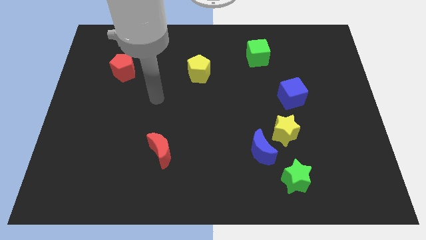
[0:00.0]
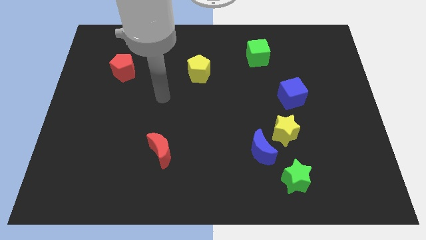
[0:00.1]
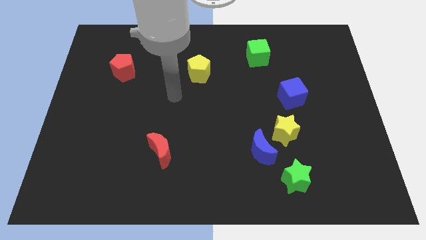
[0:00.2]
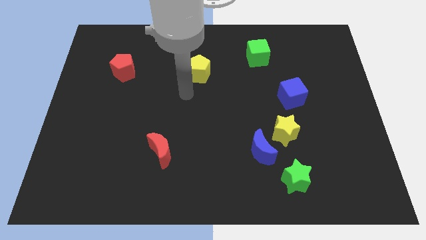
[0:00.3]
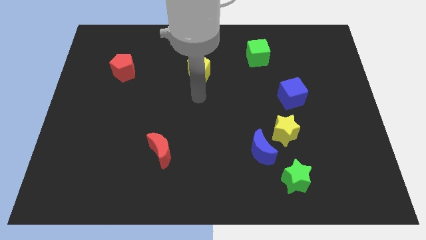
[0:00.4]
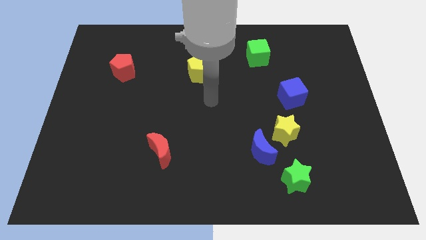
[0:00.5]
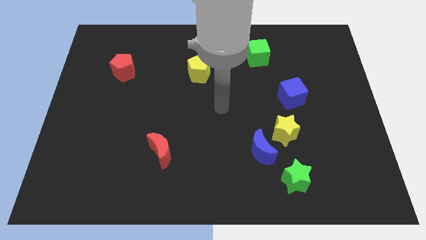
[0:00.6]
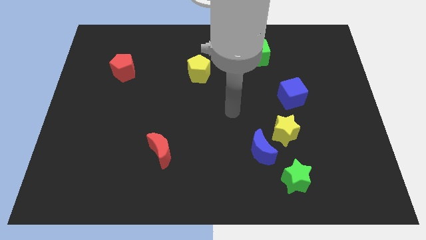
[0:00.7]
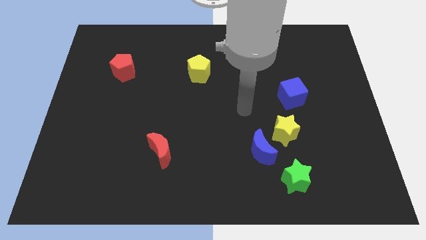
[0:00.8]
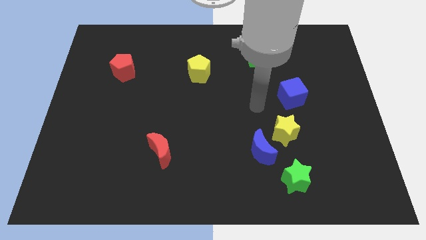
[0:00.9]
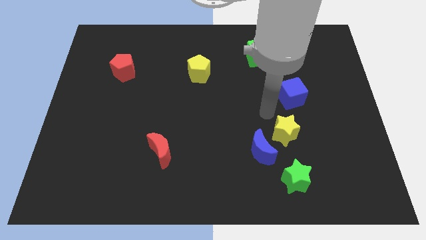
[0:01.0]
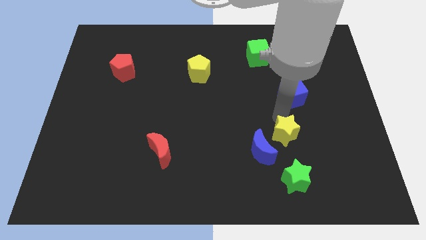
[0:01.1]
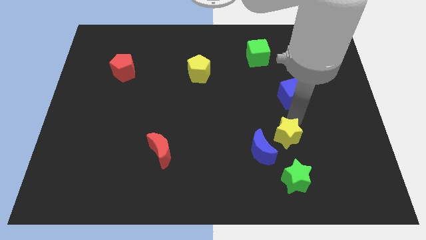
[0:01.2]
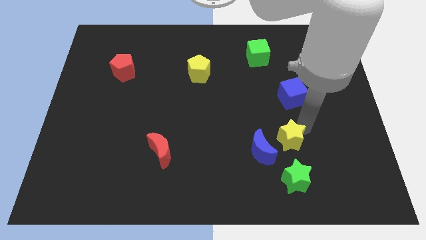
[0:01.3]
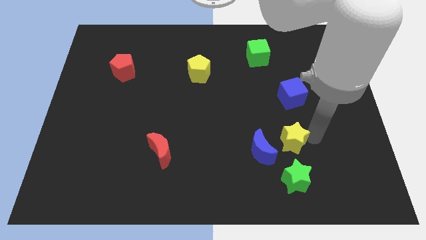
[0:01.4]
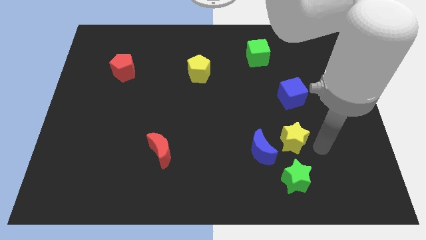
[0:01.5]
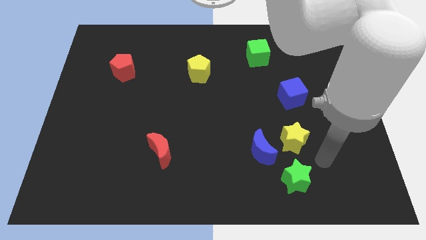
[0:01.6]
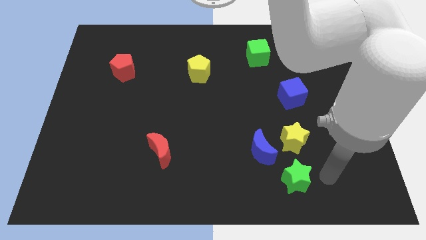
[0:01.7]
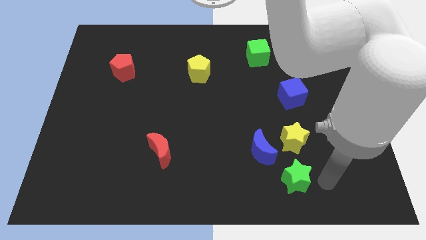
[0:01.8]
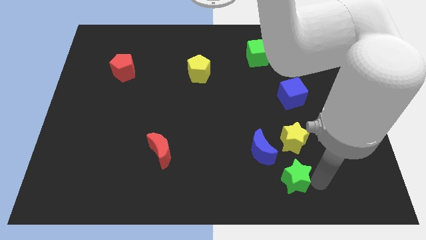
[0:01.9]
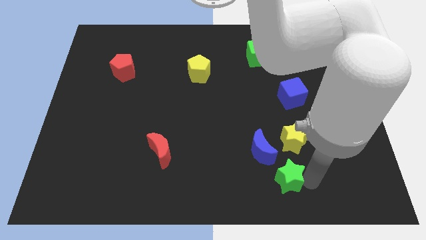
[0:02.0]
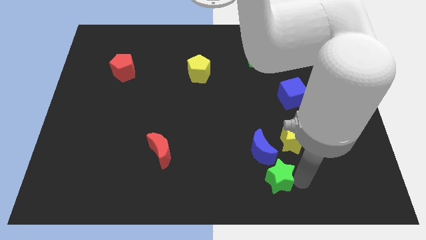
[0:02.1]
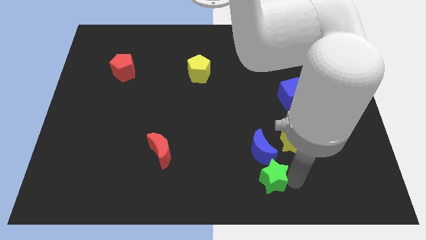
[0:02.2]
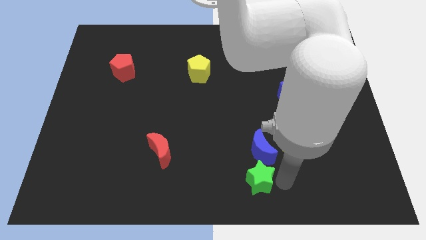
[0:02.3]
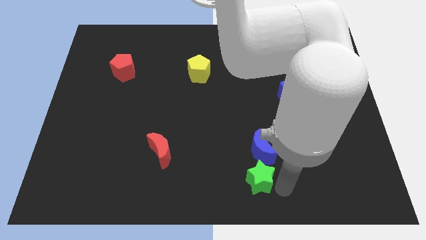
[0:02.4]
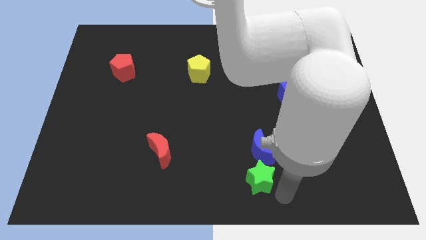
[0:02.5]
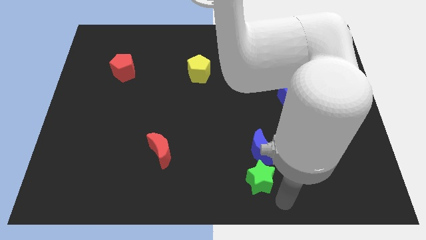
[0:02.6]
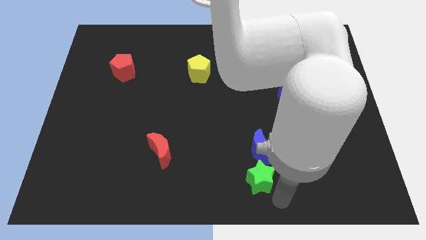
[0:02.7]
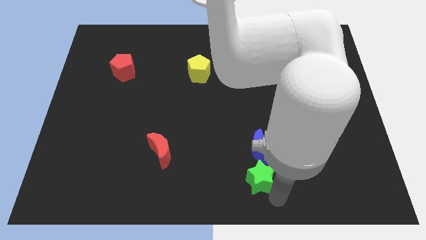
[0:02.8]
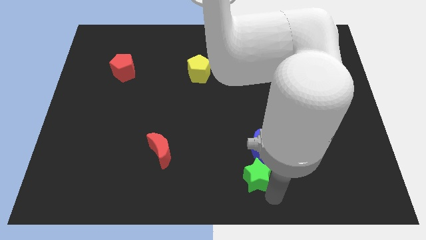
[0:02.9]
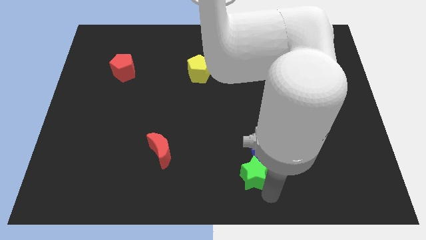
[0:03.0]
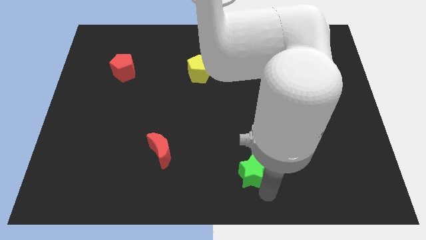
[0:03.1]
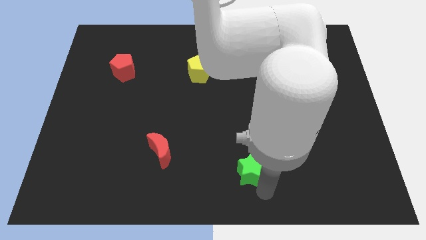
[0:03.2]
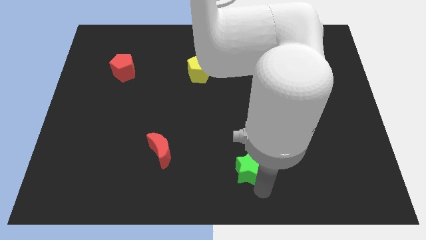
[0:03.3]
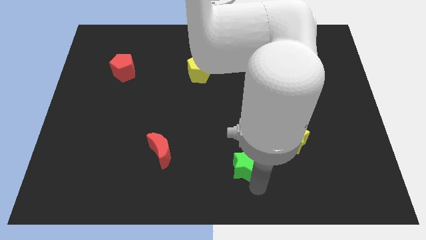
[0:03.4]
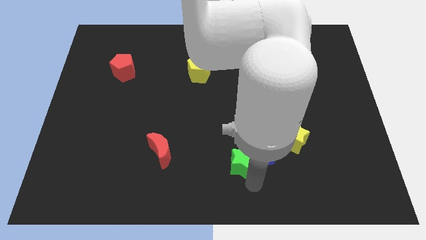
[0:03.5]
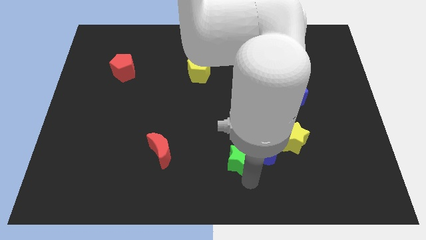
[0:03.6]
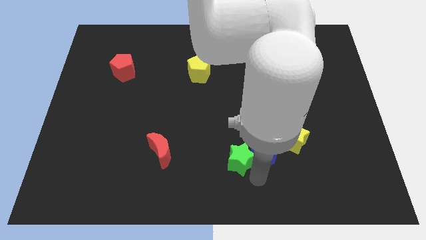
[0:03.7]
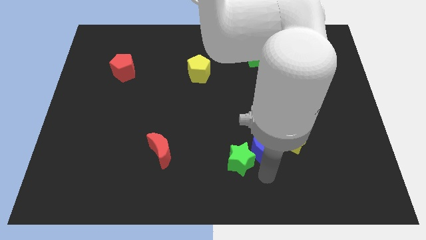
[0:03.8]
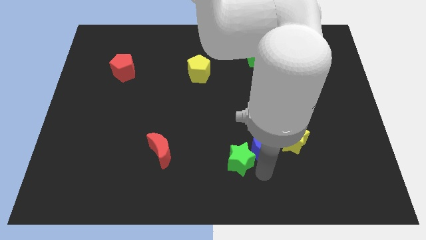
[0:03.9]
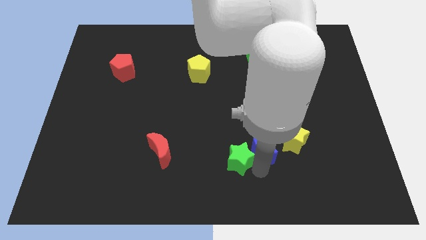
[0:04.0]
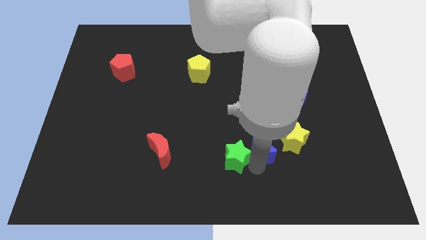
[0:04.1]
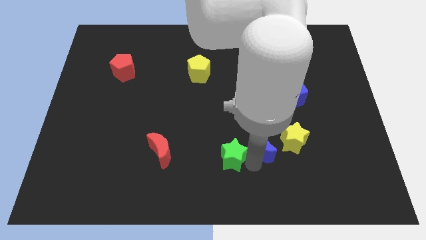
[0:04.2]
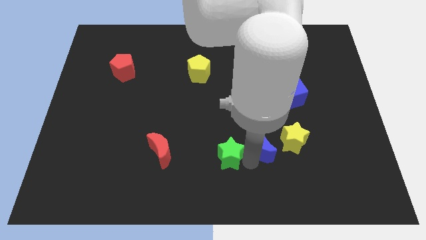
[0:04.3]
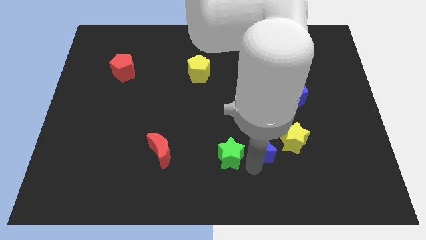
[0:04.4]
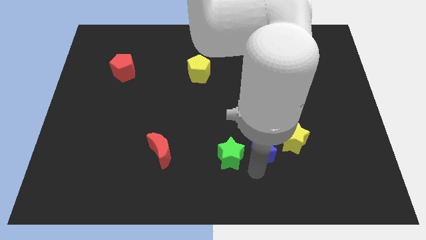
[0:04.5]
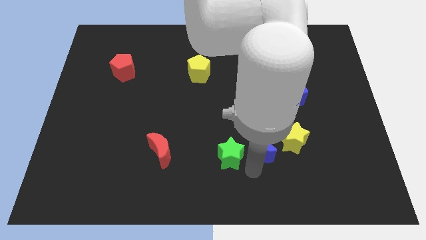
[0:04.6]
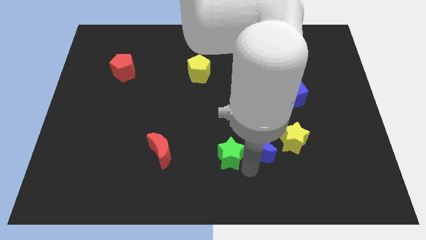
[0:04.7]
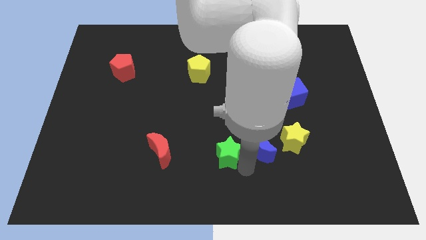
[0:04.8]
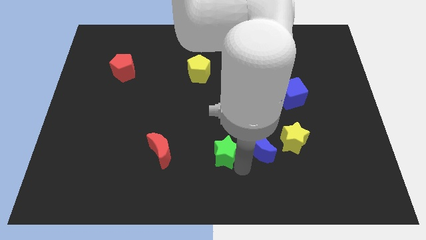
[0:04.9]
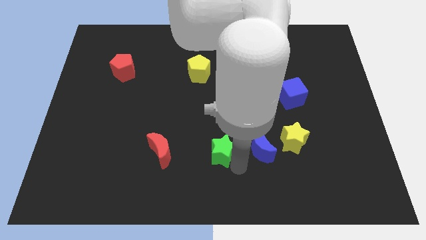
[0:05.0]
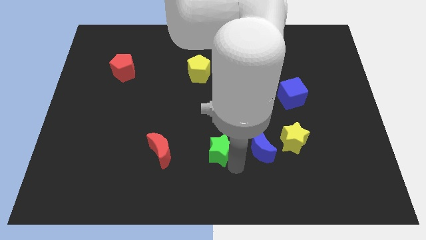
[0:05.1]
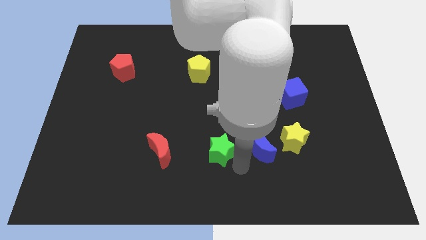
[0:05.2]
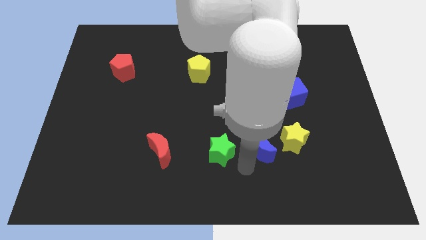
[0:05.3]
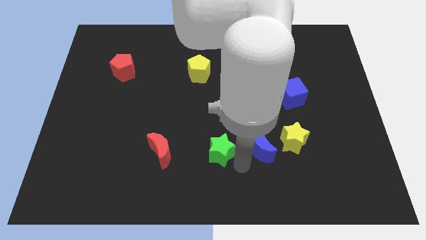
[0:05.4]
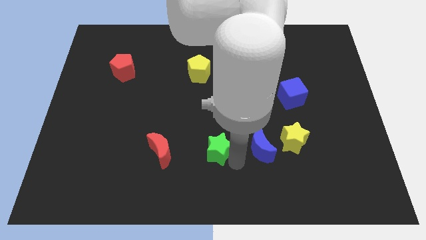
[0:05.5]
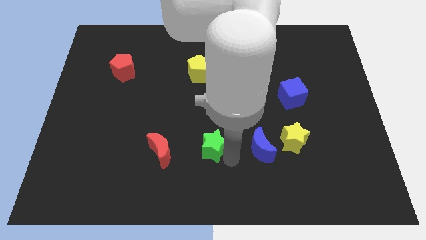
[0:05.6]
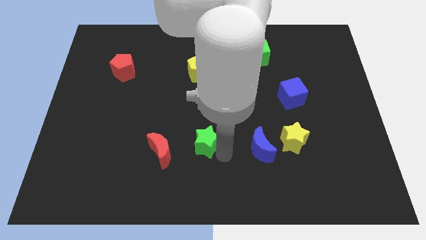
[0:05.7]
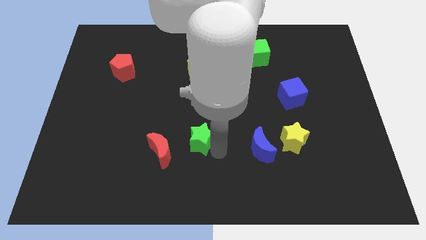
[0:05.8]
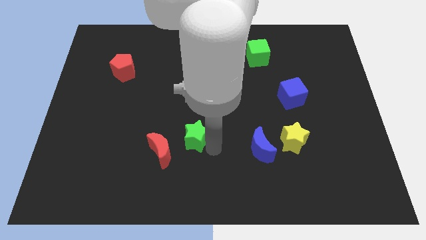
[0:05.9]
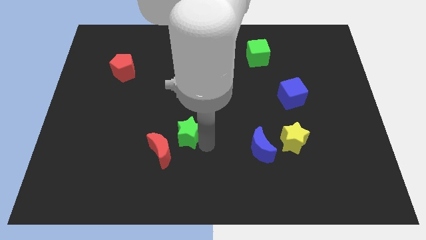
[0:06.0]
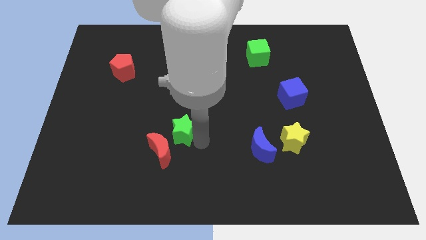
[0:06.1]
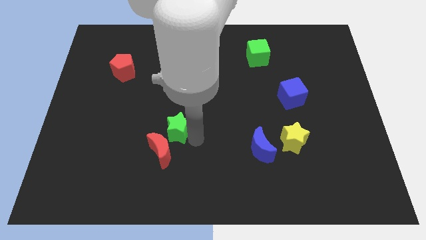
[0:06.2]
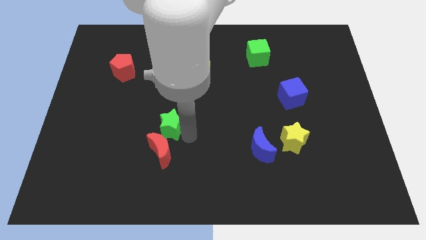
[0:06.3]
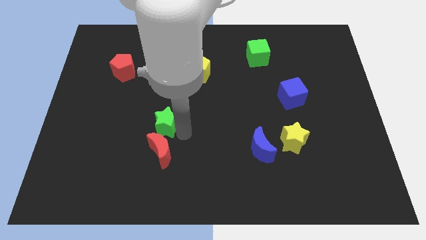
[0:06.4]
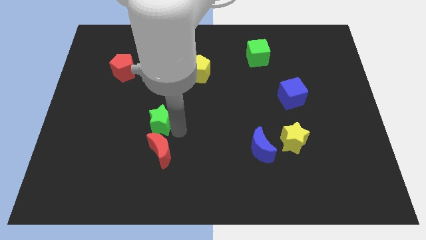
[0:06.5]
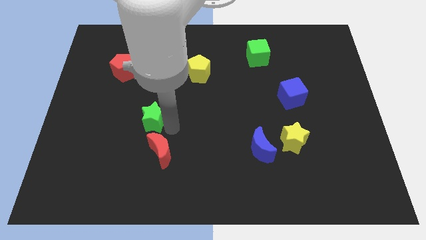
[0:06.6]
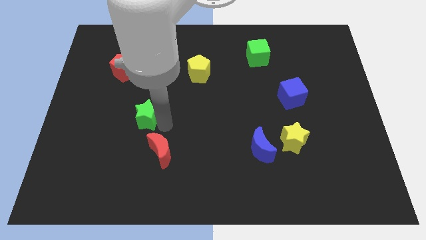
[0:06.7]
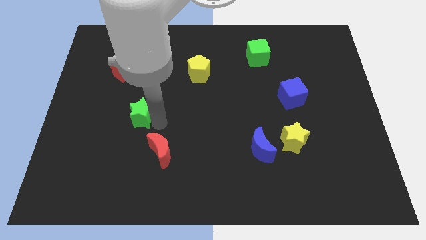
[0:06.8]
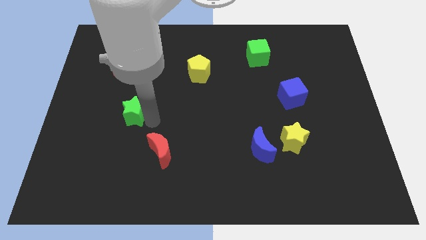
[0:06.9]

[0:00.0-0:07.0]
put the green star to the bottom side of the red pentagon

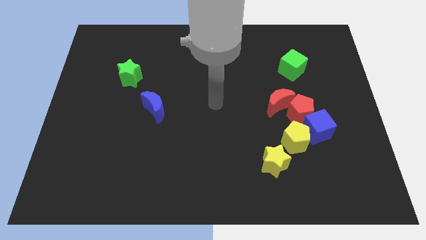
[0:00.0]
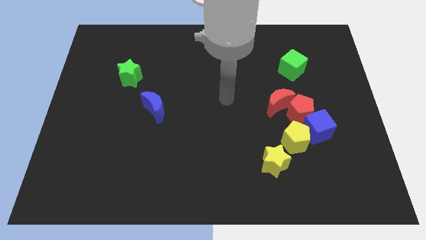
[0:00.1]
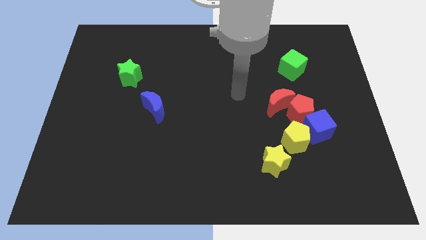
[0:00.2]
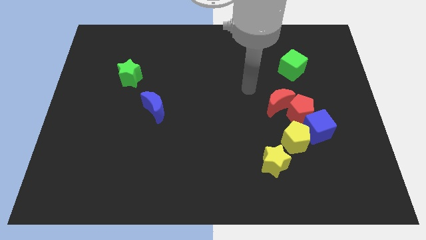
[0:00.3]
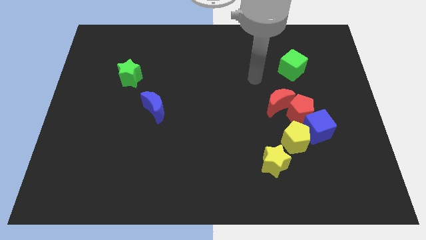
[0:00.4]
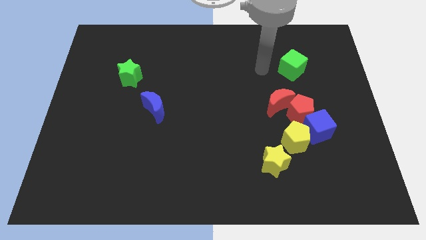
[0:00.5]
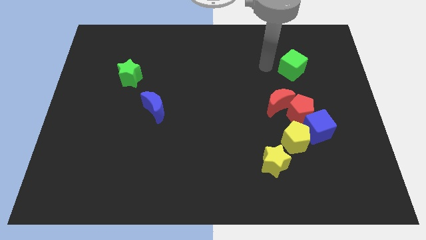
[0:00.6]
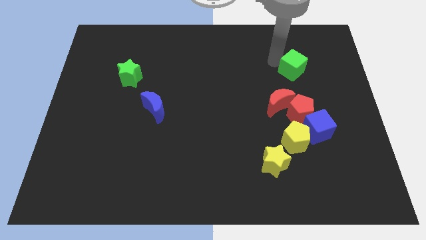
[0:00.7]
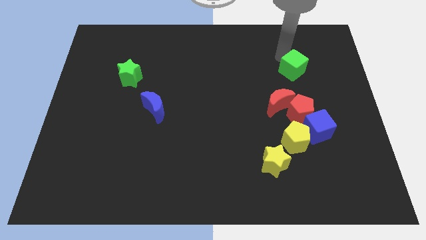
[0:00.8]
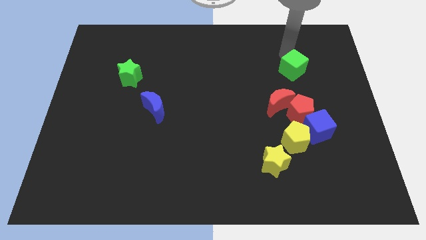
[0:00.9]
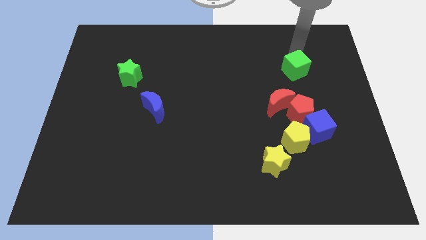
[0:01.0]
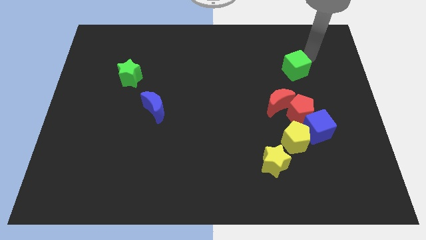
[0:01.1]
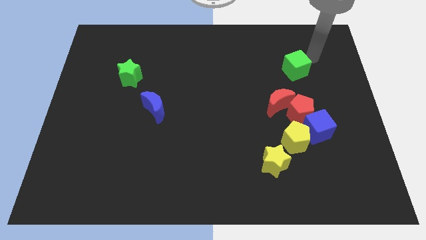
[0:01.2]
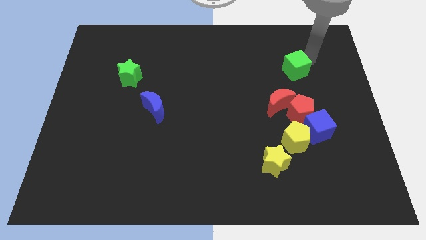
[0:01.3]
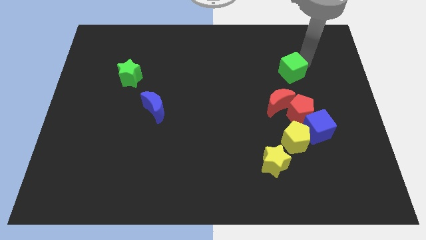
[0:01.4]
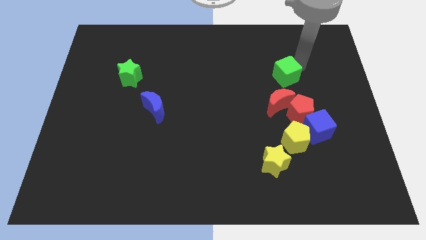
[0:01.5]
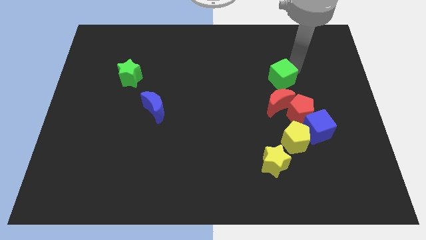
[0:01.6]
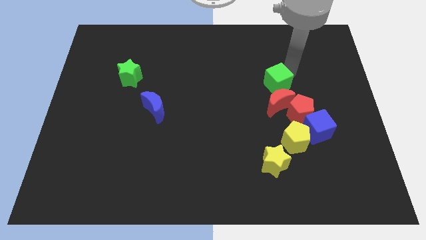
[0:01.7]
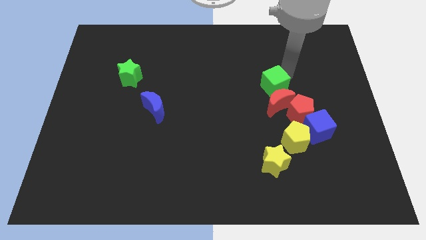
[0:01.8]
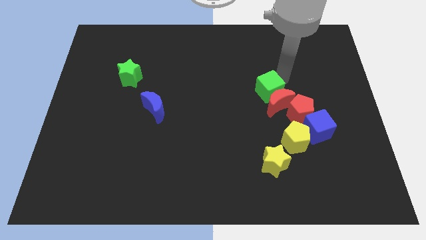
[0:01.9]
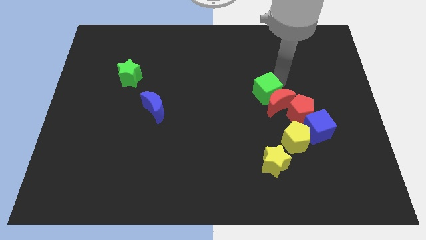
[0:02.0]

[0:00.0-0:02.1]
move the green cube left of the red moon
